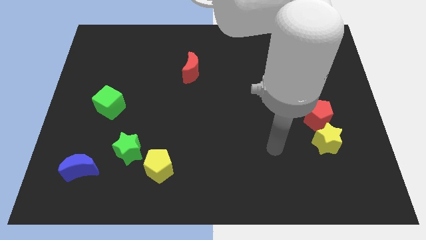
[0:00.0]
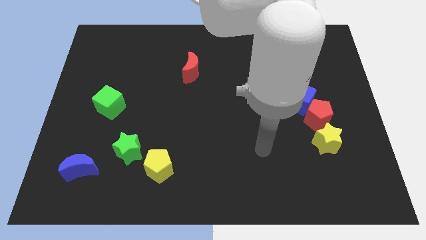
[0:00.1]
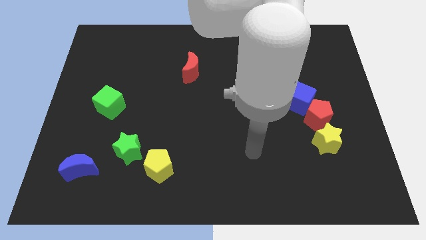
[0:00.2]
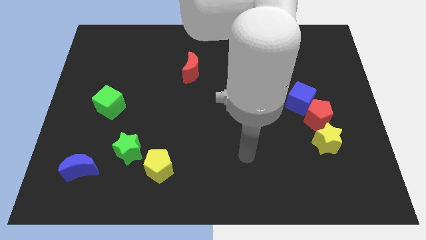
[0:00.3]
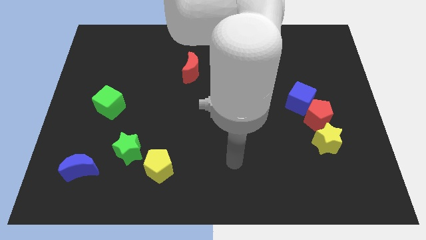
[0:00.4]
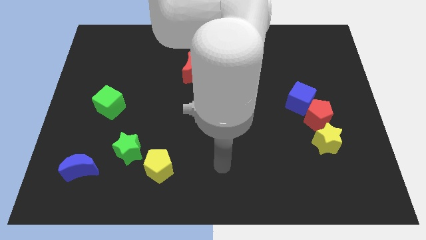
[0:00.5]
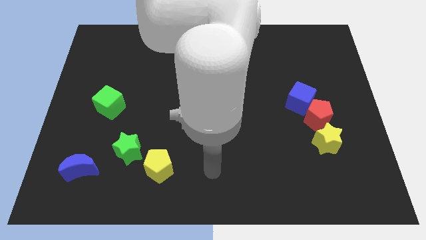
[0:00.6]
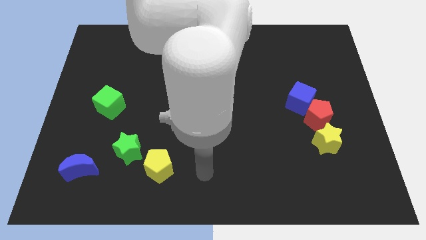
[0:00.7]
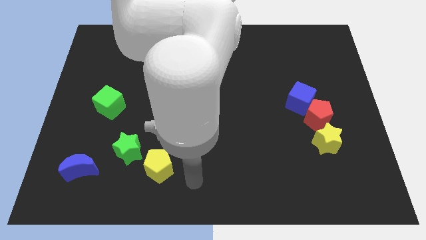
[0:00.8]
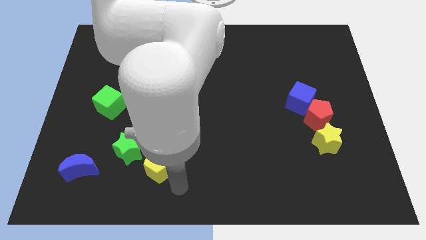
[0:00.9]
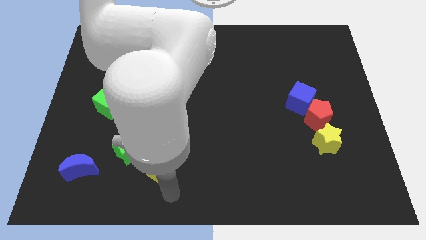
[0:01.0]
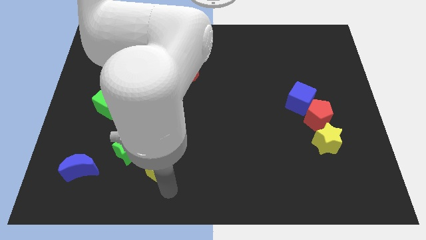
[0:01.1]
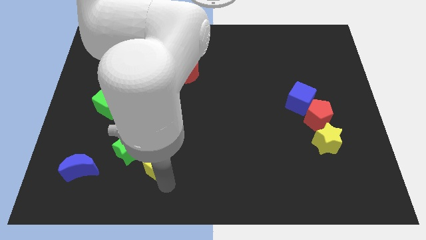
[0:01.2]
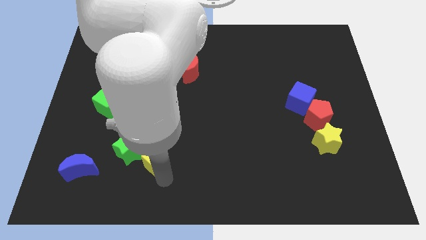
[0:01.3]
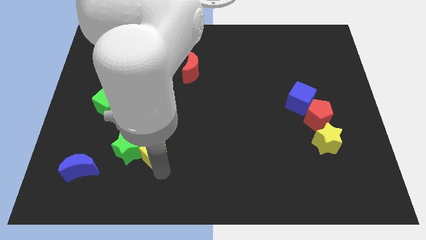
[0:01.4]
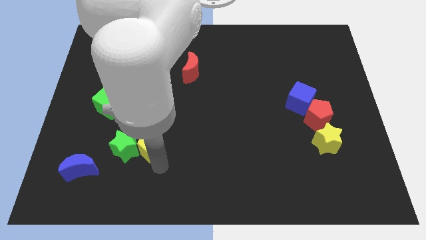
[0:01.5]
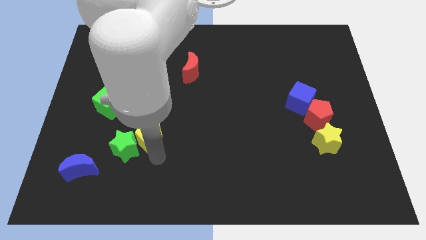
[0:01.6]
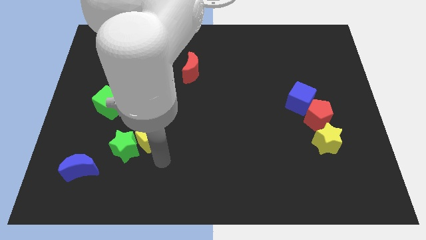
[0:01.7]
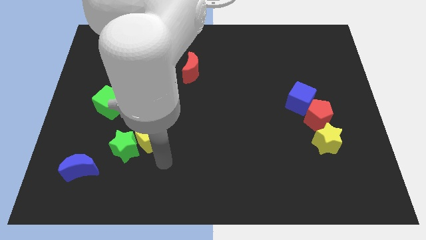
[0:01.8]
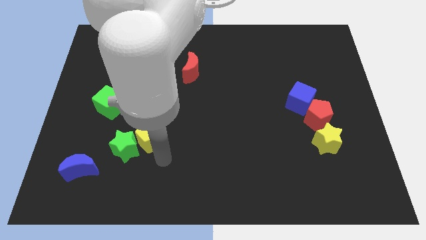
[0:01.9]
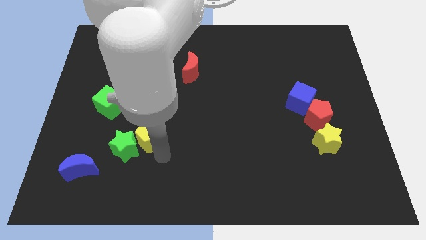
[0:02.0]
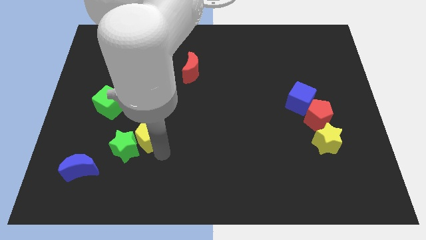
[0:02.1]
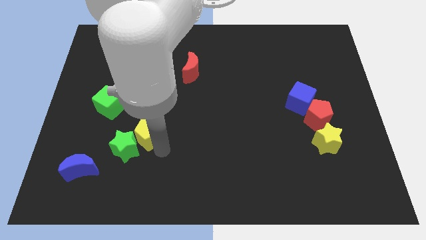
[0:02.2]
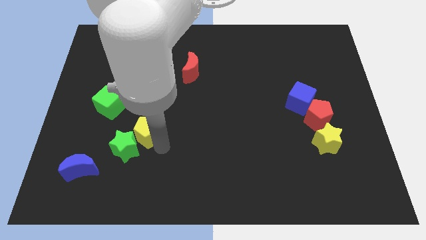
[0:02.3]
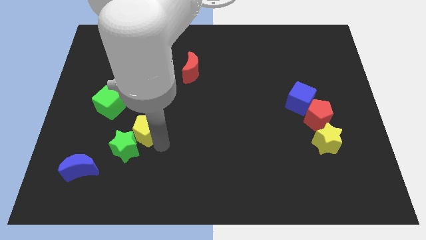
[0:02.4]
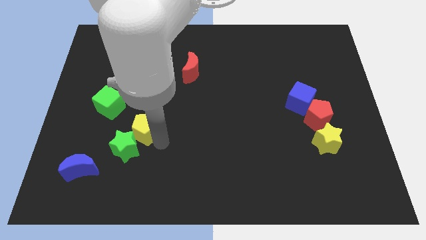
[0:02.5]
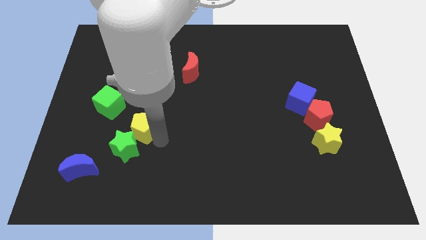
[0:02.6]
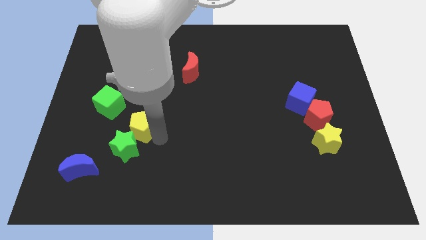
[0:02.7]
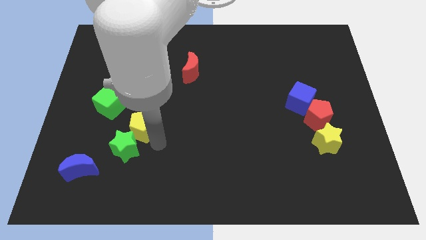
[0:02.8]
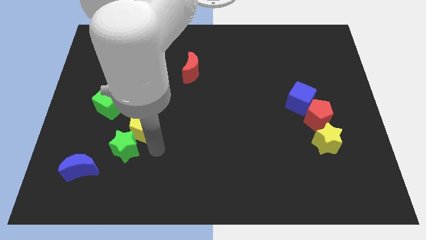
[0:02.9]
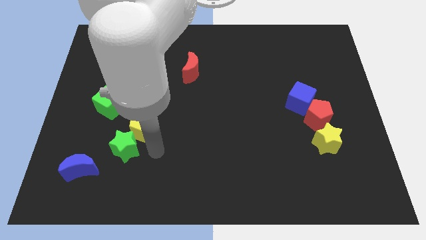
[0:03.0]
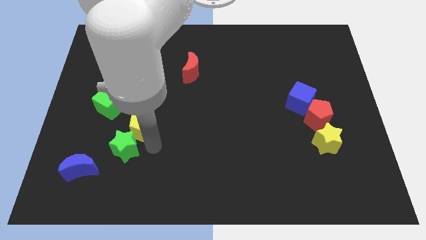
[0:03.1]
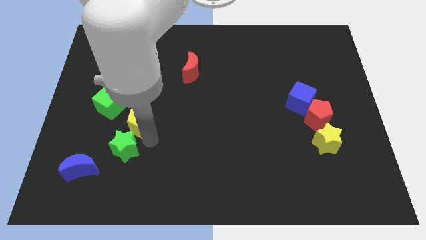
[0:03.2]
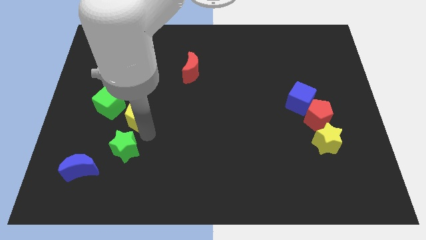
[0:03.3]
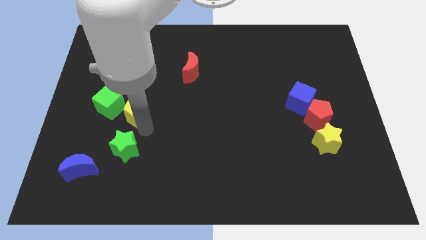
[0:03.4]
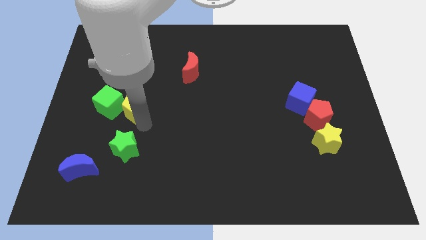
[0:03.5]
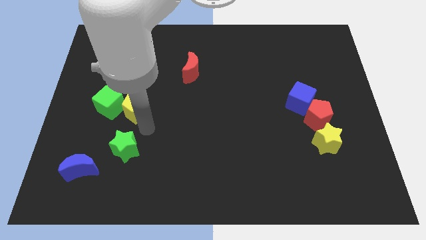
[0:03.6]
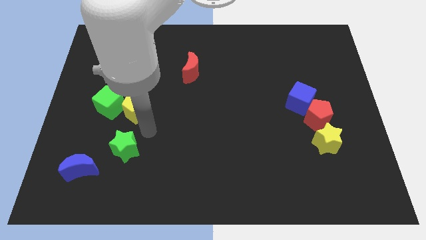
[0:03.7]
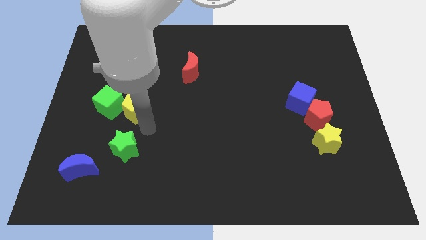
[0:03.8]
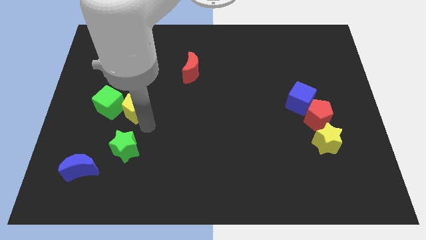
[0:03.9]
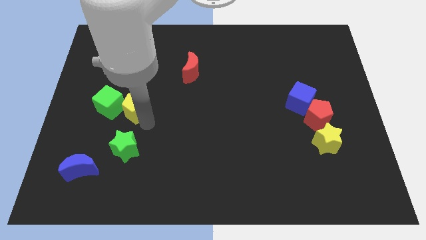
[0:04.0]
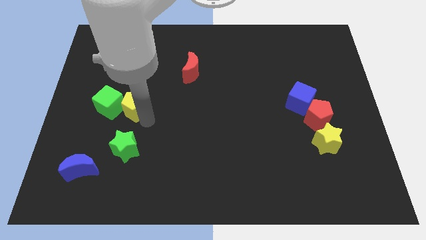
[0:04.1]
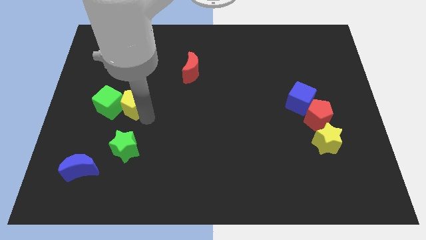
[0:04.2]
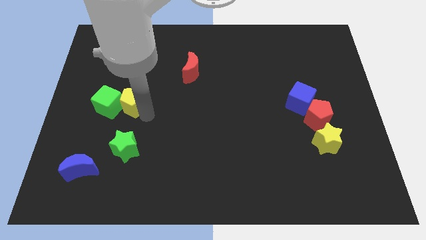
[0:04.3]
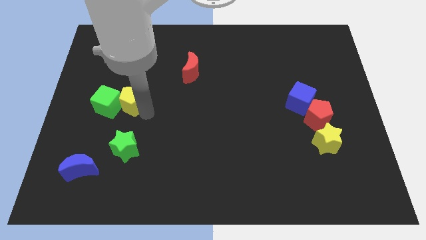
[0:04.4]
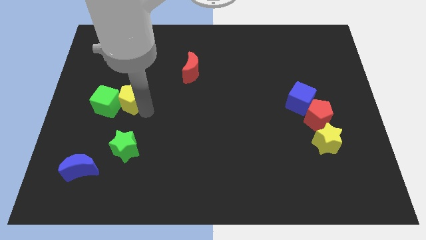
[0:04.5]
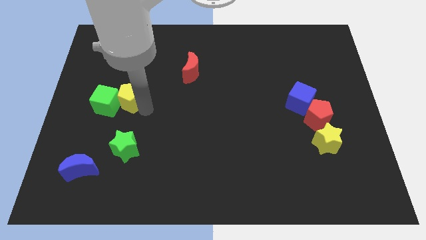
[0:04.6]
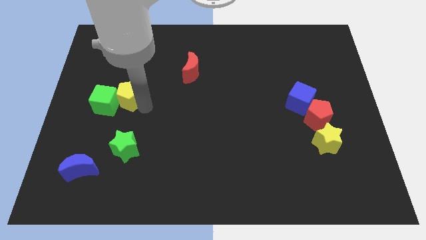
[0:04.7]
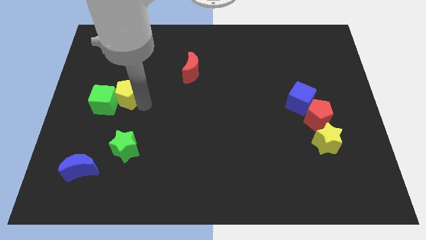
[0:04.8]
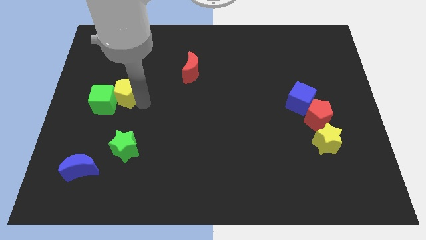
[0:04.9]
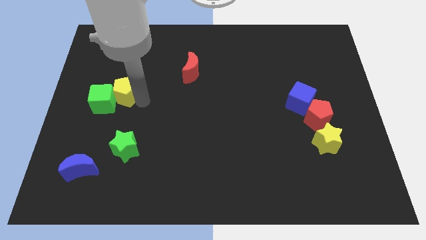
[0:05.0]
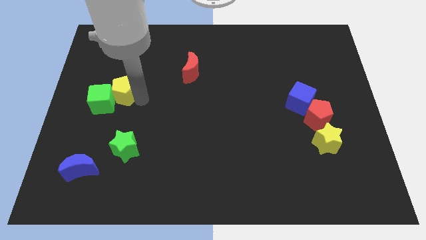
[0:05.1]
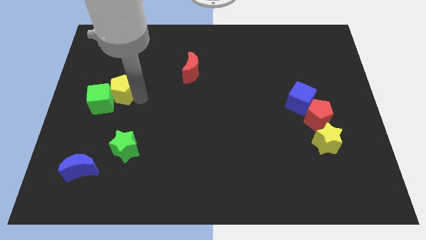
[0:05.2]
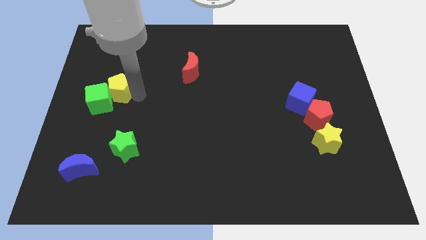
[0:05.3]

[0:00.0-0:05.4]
move the yellow pentagon to the top of the green cube

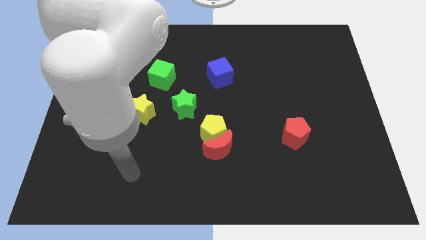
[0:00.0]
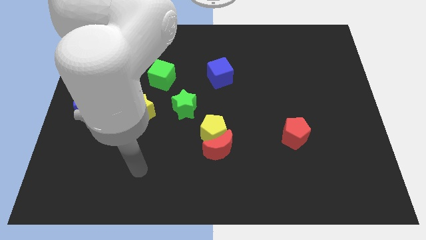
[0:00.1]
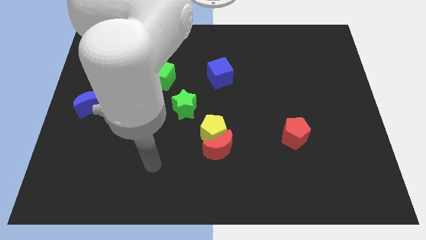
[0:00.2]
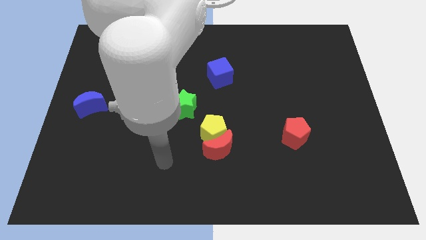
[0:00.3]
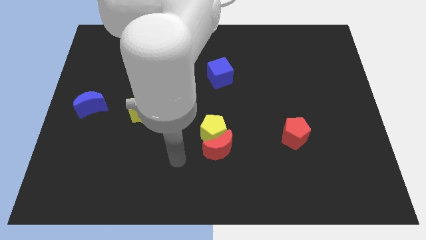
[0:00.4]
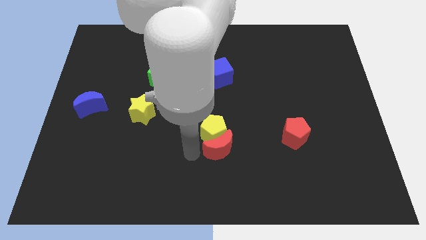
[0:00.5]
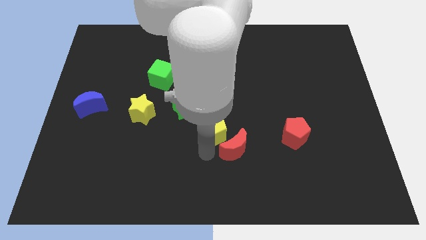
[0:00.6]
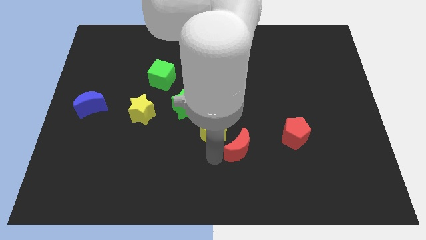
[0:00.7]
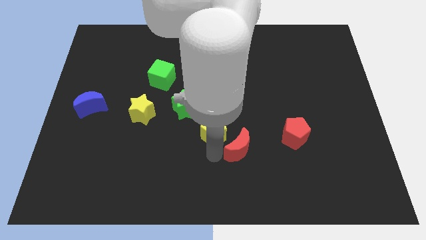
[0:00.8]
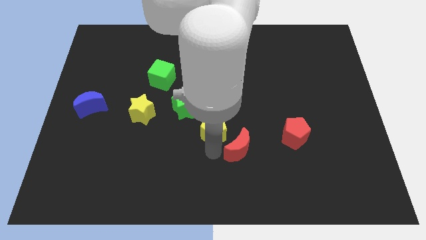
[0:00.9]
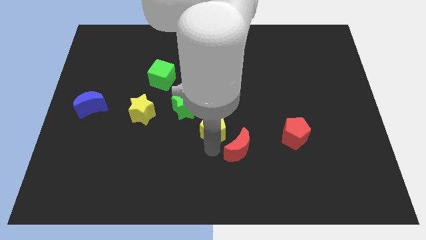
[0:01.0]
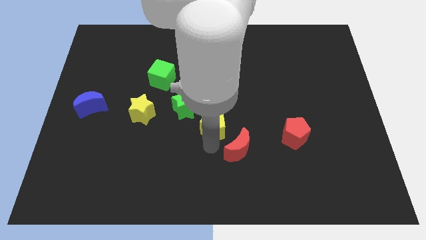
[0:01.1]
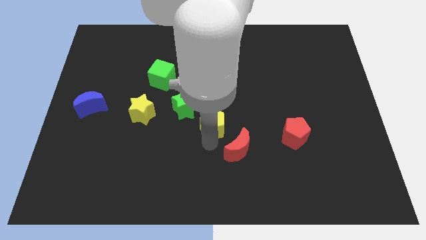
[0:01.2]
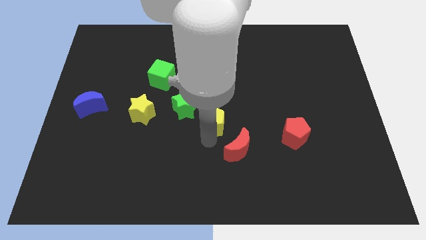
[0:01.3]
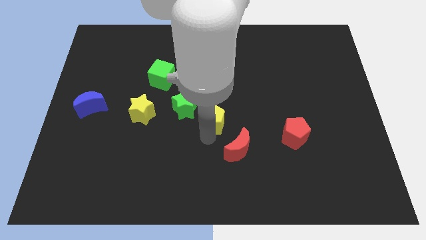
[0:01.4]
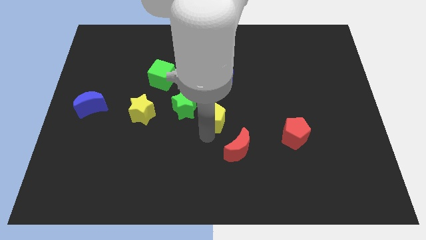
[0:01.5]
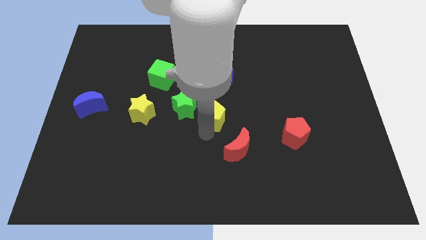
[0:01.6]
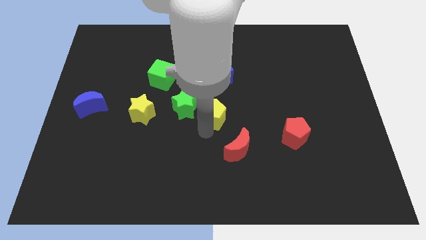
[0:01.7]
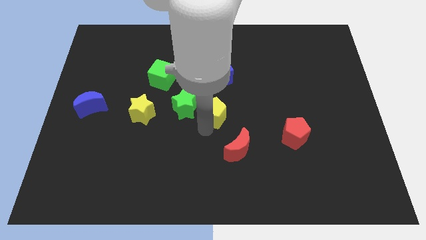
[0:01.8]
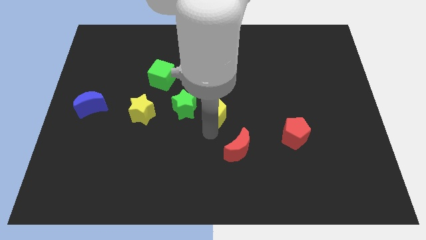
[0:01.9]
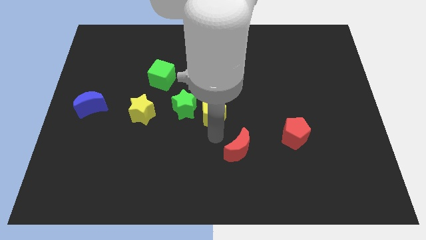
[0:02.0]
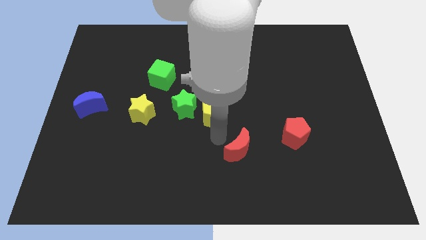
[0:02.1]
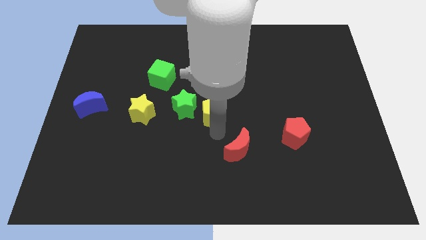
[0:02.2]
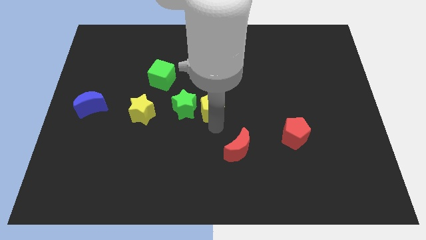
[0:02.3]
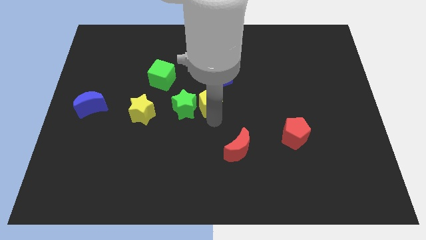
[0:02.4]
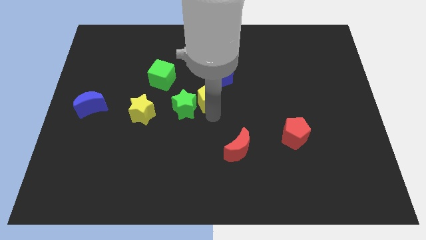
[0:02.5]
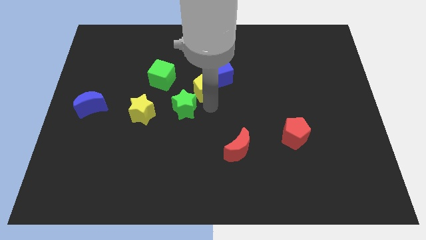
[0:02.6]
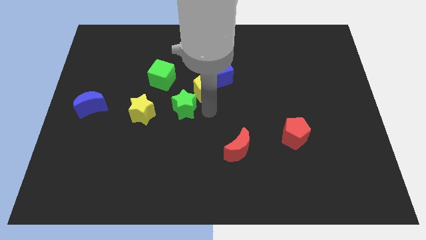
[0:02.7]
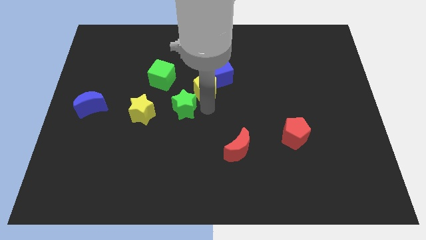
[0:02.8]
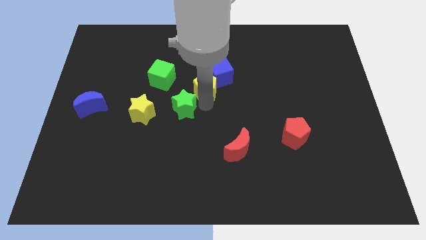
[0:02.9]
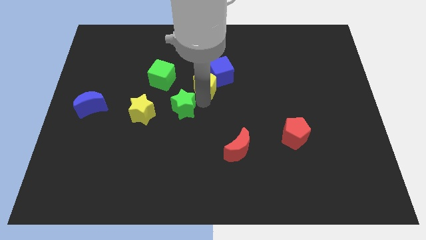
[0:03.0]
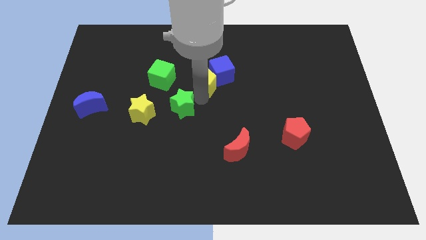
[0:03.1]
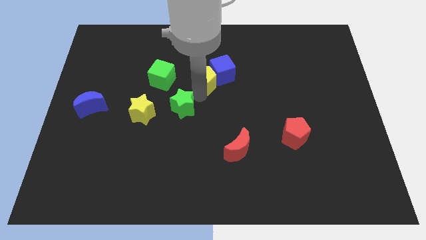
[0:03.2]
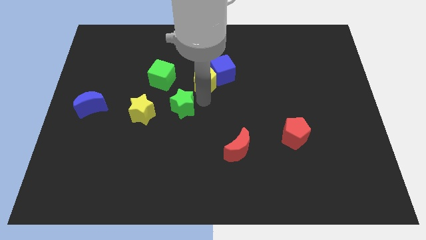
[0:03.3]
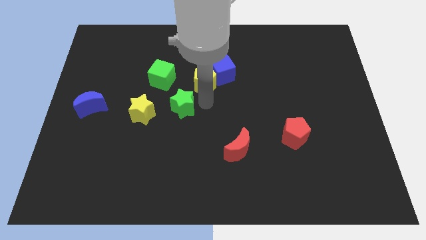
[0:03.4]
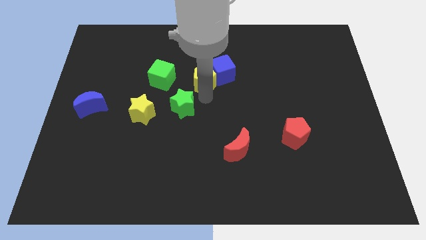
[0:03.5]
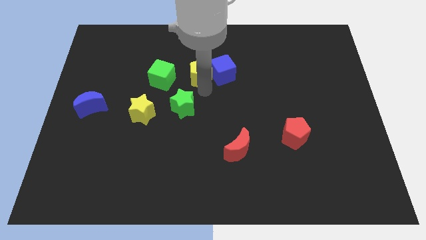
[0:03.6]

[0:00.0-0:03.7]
move the yellow pentagon diagonally up and to the left of the blue cube
